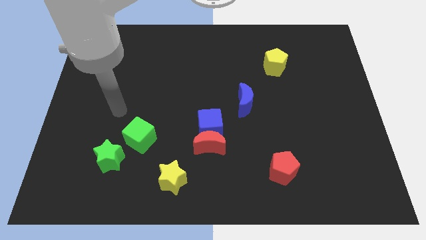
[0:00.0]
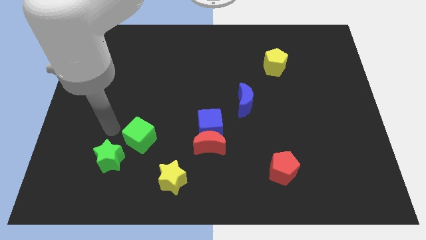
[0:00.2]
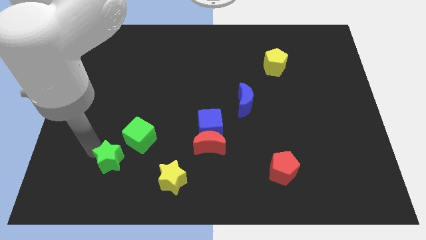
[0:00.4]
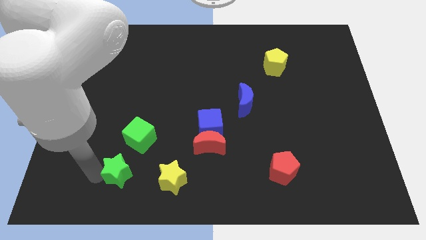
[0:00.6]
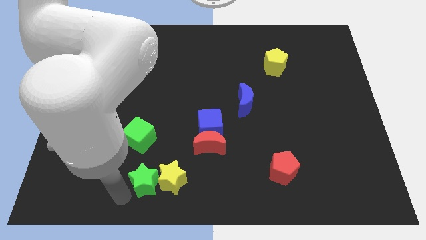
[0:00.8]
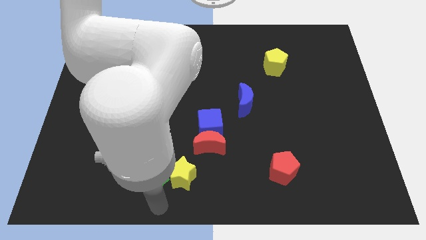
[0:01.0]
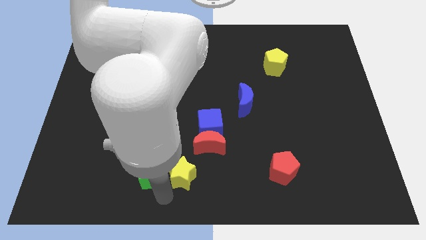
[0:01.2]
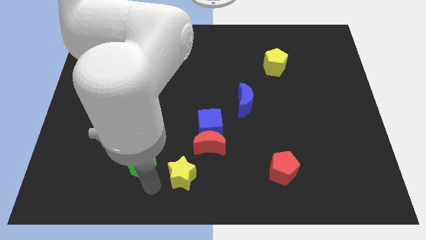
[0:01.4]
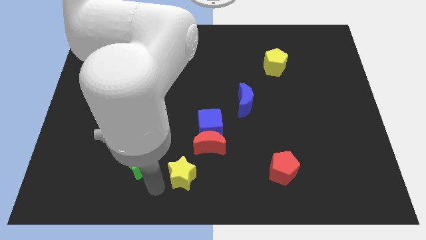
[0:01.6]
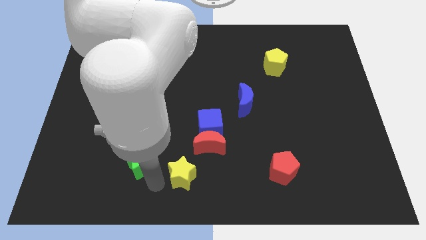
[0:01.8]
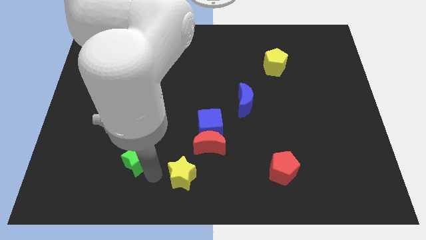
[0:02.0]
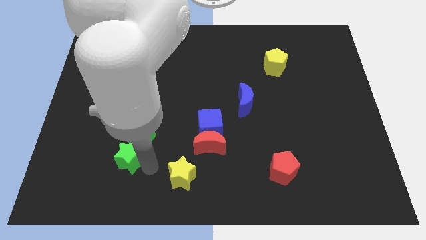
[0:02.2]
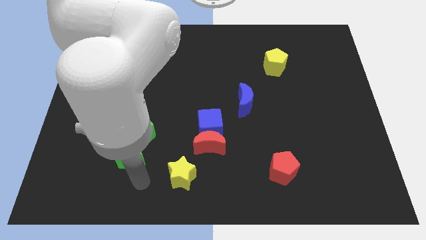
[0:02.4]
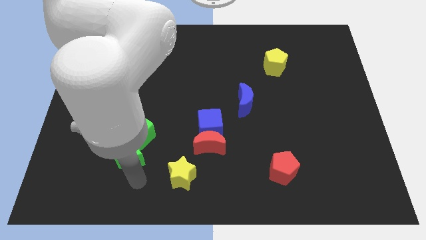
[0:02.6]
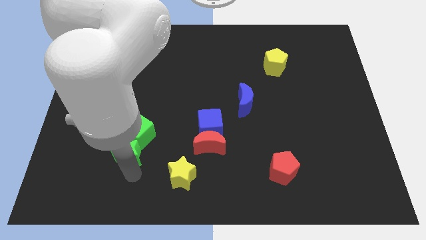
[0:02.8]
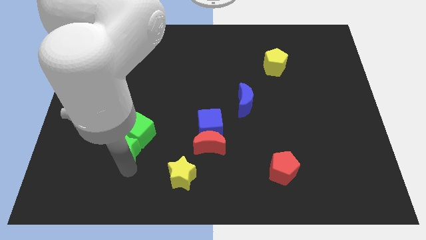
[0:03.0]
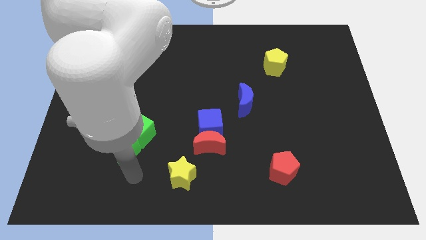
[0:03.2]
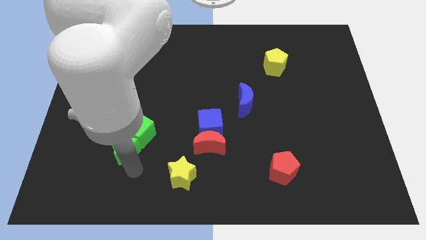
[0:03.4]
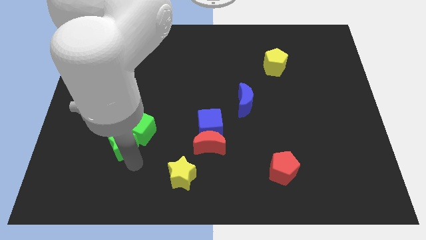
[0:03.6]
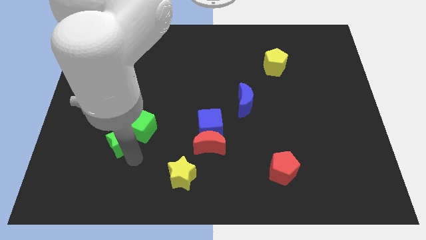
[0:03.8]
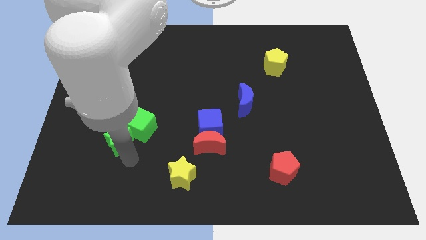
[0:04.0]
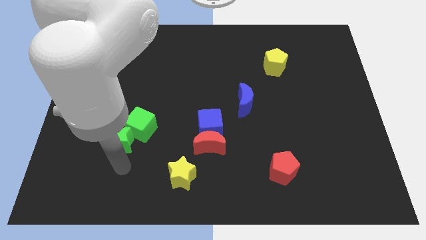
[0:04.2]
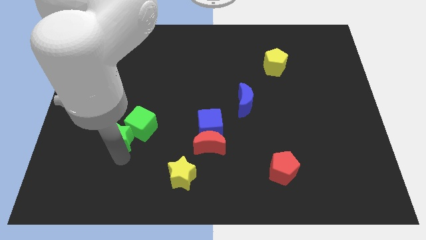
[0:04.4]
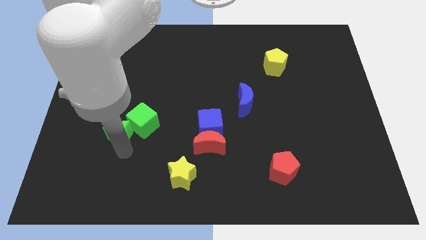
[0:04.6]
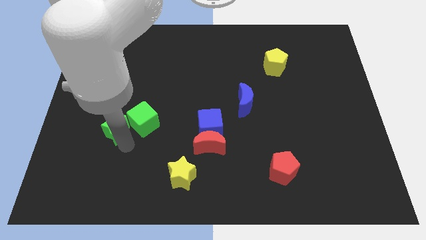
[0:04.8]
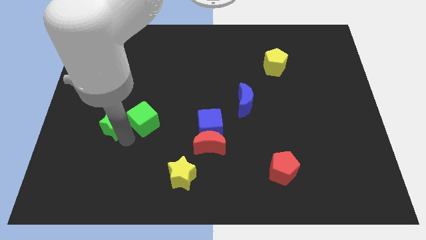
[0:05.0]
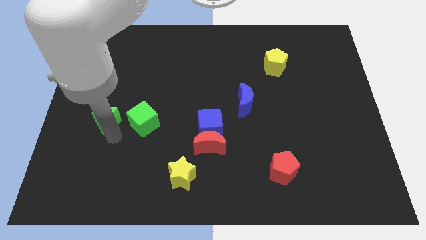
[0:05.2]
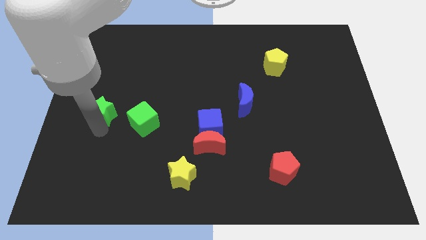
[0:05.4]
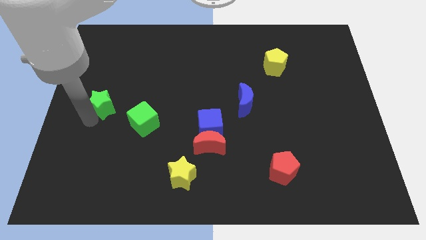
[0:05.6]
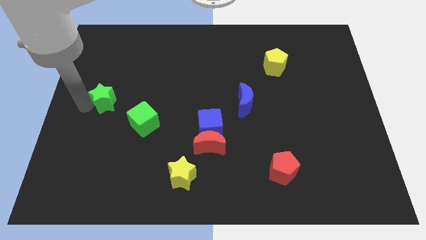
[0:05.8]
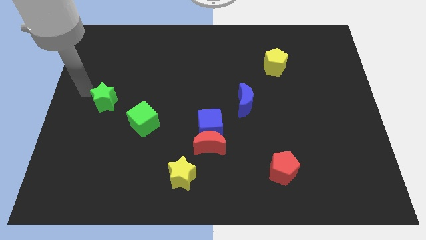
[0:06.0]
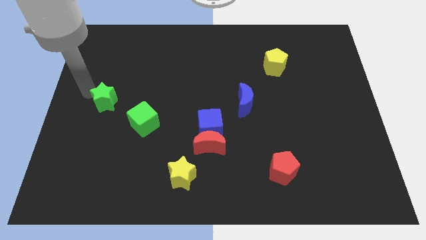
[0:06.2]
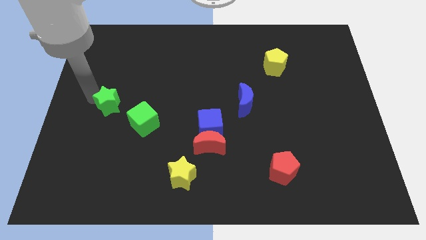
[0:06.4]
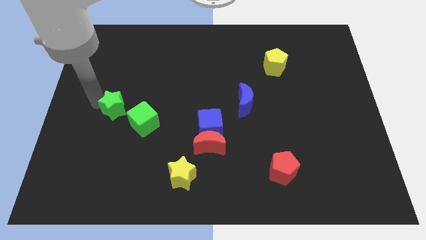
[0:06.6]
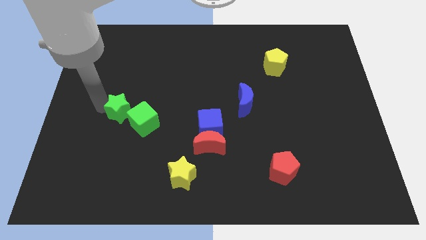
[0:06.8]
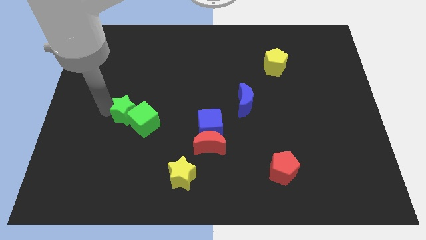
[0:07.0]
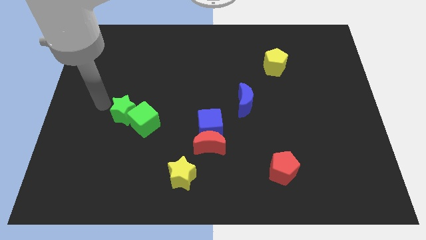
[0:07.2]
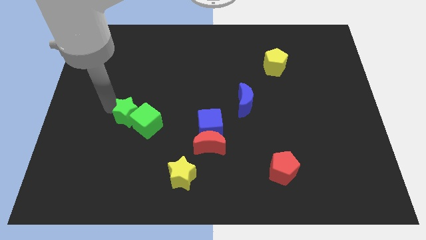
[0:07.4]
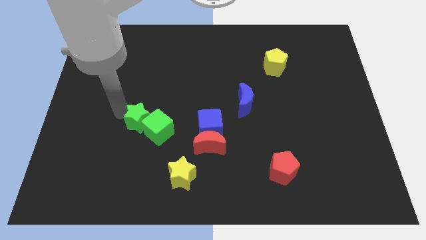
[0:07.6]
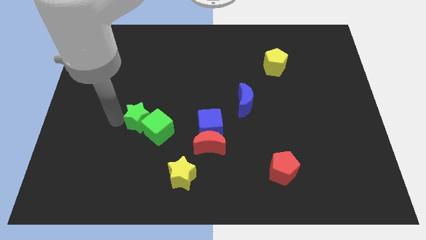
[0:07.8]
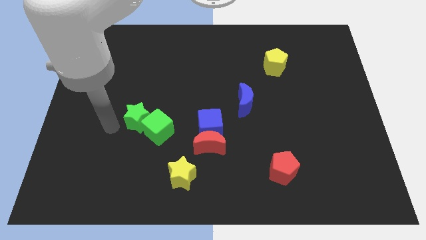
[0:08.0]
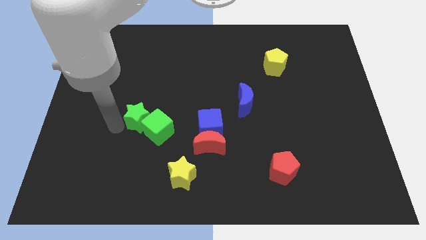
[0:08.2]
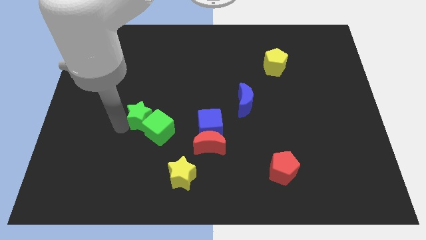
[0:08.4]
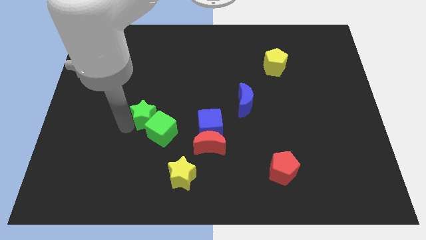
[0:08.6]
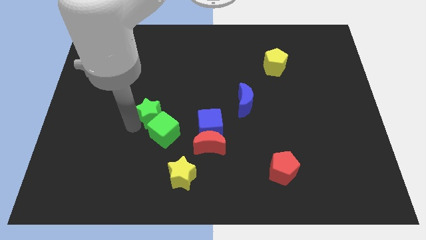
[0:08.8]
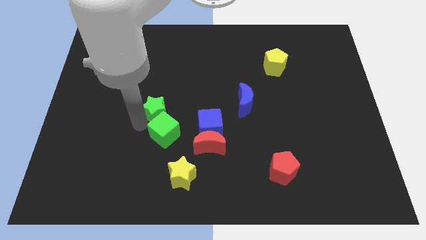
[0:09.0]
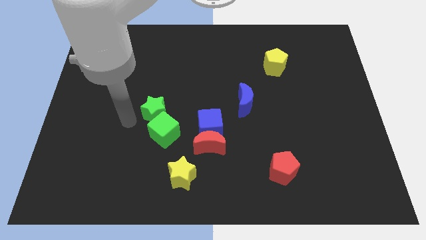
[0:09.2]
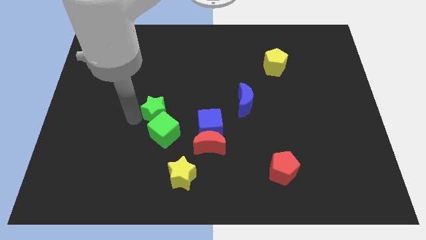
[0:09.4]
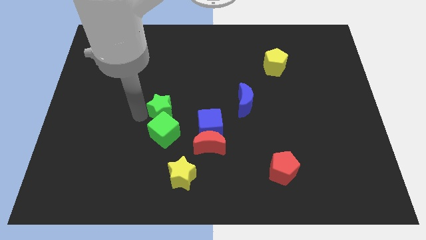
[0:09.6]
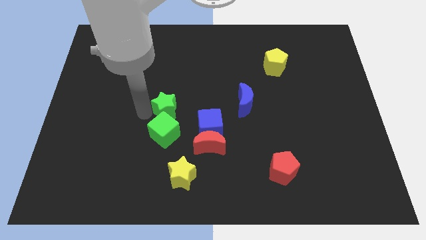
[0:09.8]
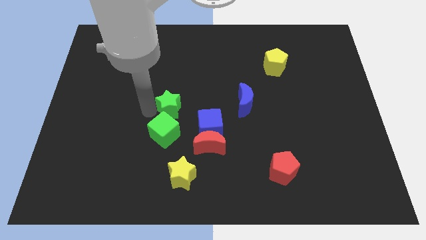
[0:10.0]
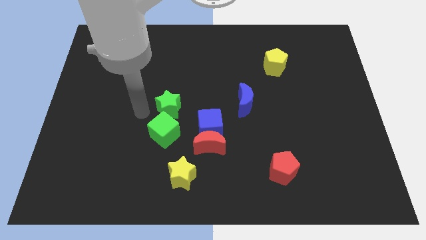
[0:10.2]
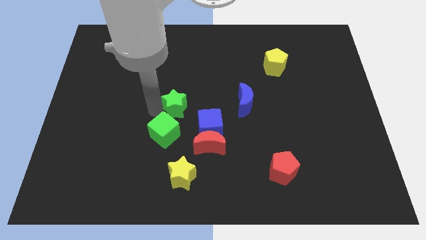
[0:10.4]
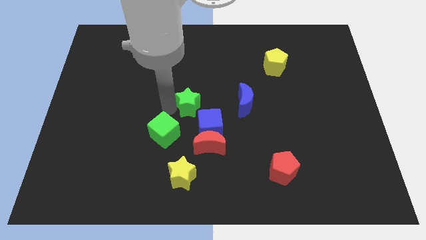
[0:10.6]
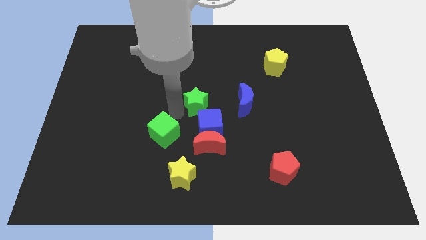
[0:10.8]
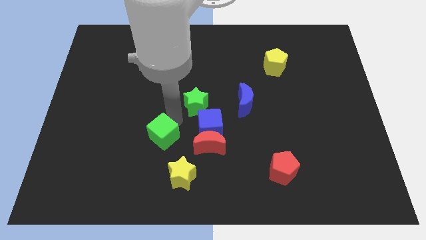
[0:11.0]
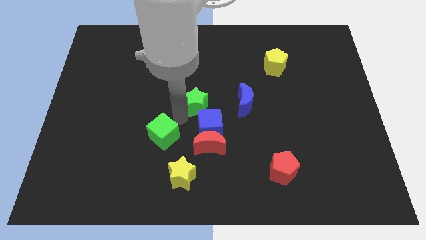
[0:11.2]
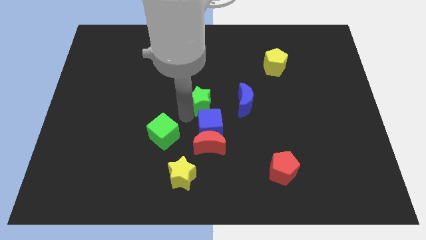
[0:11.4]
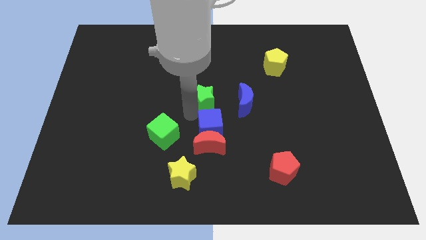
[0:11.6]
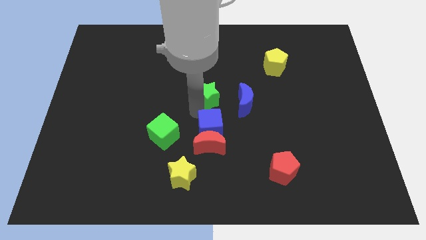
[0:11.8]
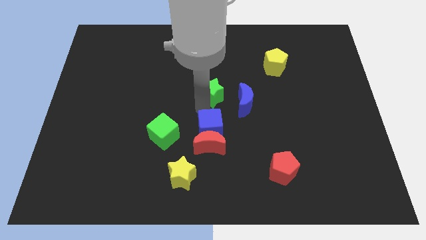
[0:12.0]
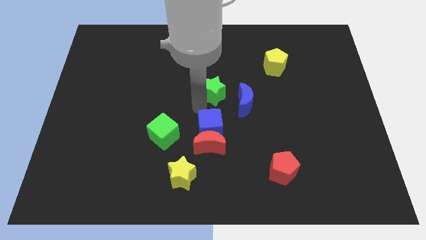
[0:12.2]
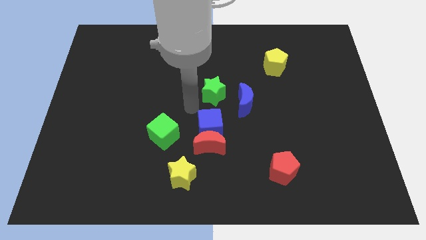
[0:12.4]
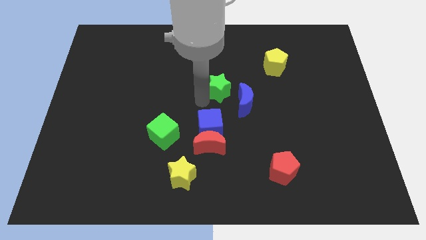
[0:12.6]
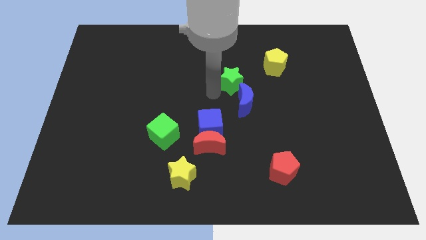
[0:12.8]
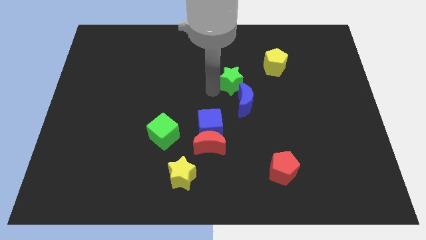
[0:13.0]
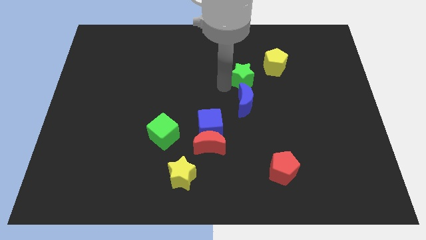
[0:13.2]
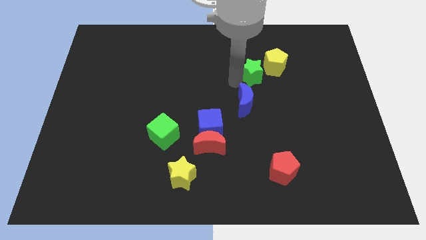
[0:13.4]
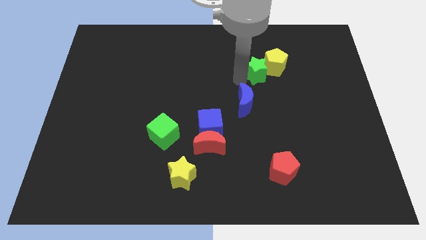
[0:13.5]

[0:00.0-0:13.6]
push the green star towards the yellow pentagon
